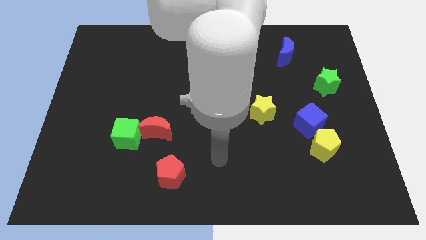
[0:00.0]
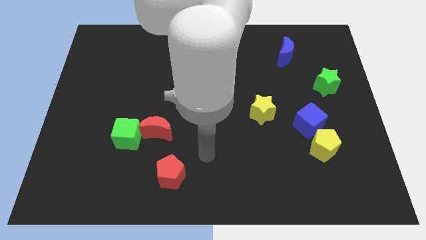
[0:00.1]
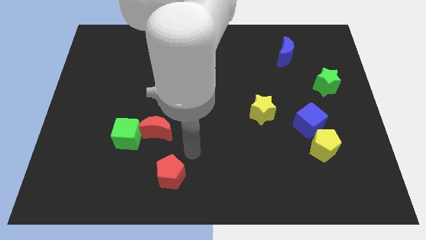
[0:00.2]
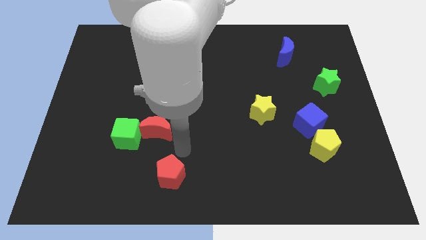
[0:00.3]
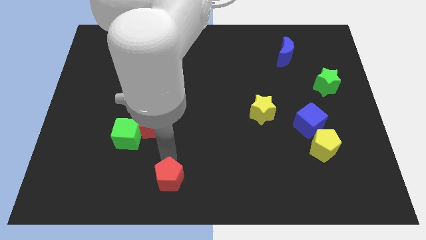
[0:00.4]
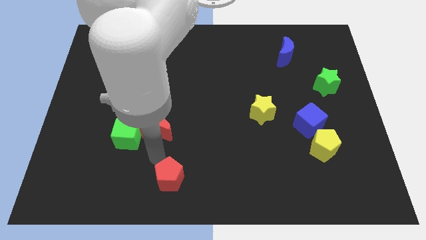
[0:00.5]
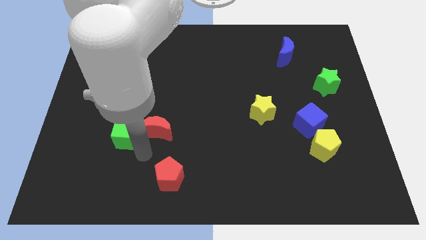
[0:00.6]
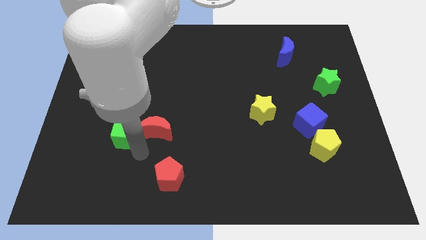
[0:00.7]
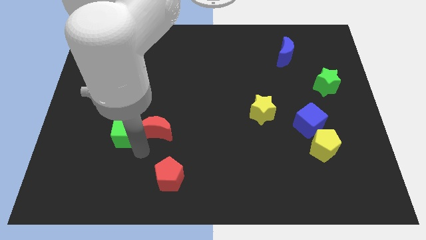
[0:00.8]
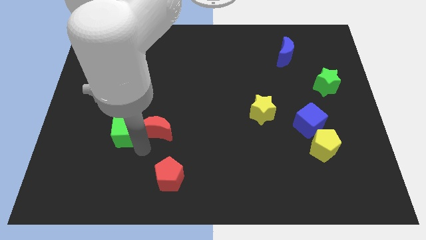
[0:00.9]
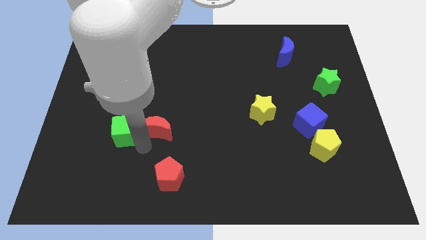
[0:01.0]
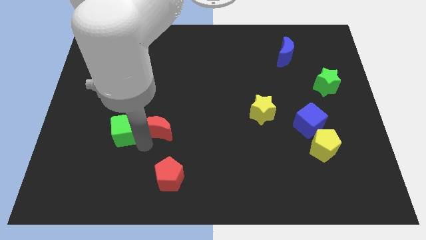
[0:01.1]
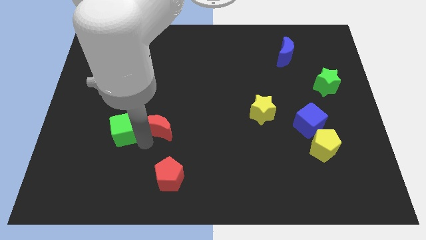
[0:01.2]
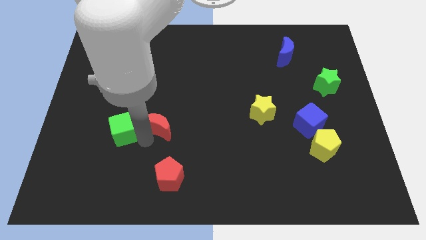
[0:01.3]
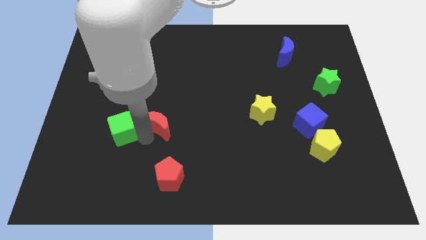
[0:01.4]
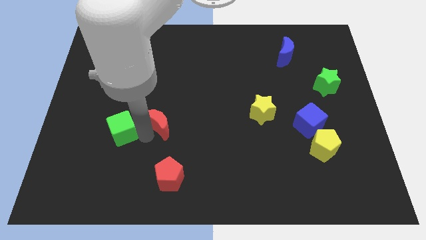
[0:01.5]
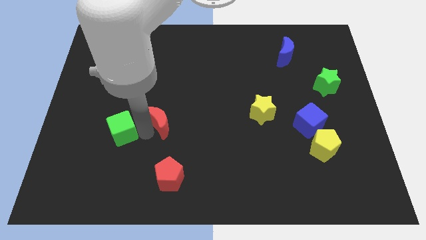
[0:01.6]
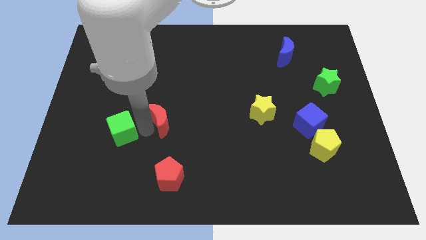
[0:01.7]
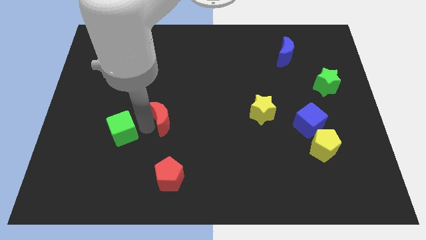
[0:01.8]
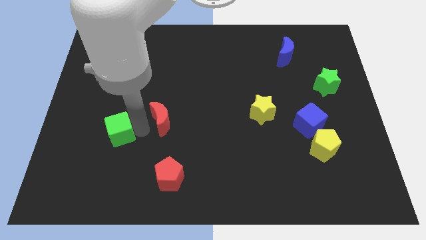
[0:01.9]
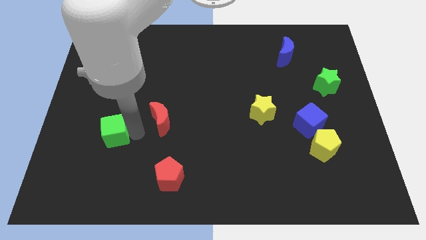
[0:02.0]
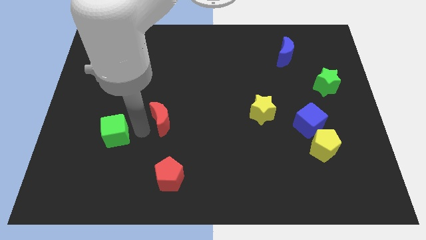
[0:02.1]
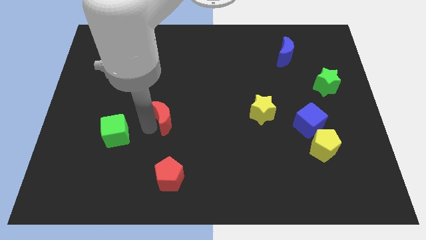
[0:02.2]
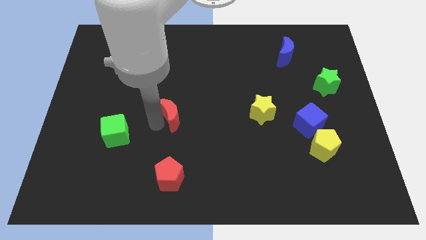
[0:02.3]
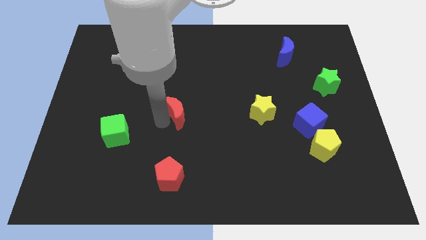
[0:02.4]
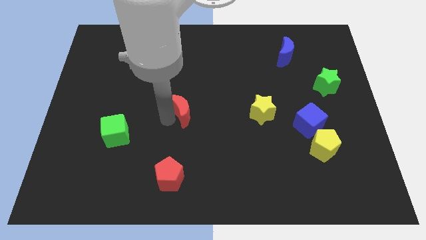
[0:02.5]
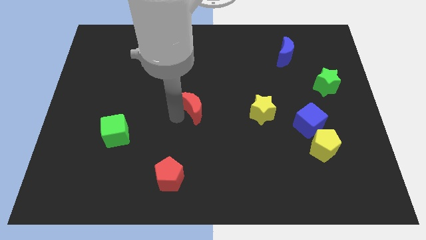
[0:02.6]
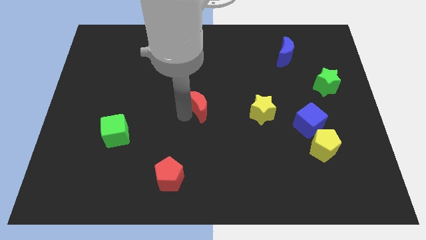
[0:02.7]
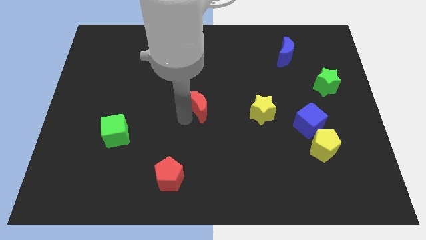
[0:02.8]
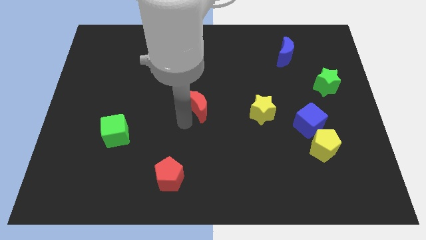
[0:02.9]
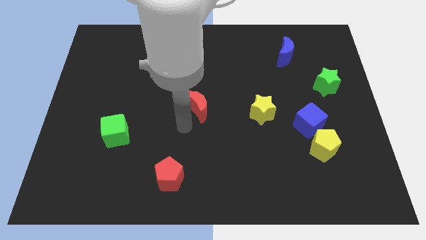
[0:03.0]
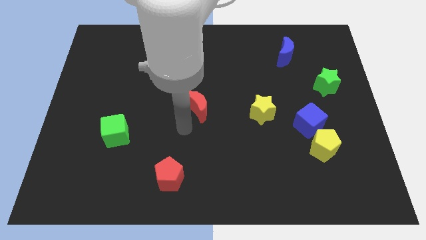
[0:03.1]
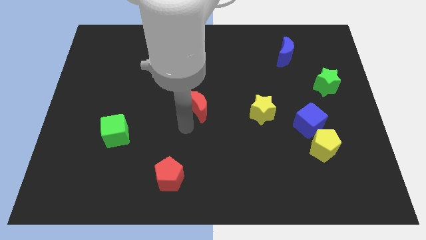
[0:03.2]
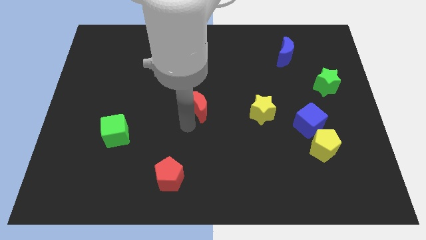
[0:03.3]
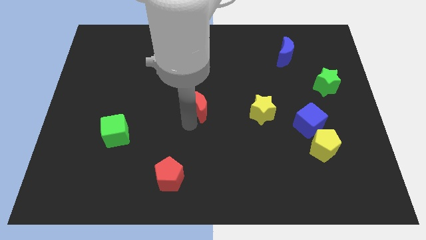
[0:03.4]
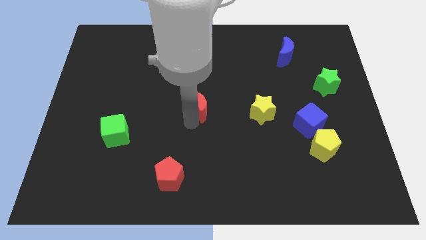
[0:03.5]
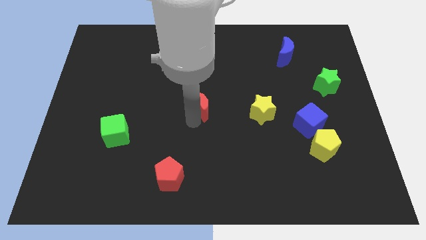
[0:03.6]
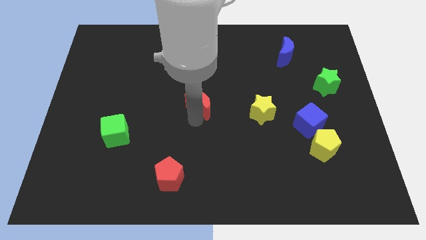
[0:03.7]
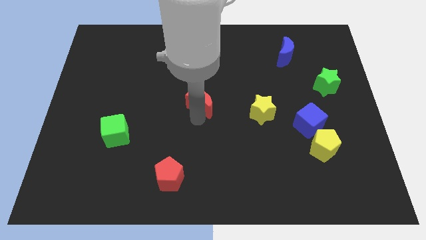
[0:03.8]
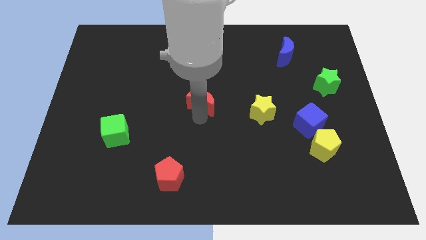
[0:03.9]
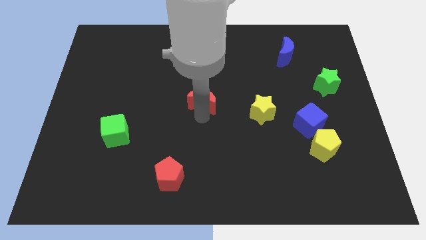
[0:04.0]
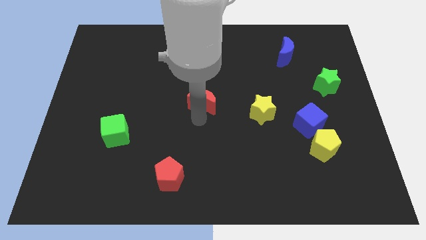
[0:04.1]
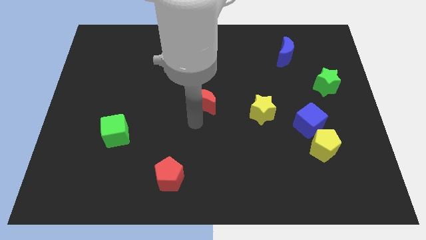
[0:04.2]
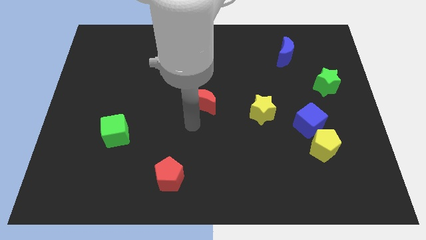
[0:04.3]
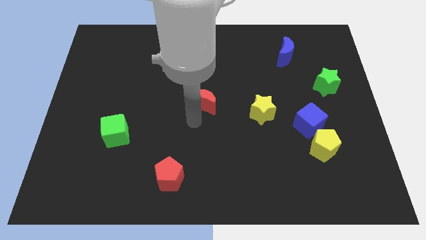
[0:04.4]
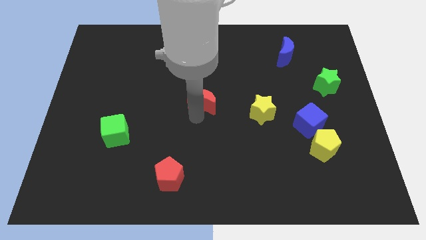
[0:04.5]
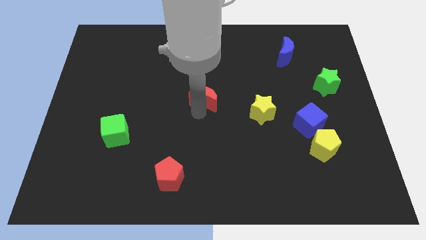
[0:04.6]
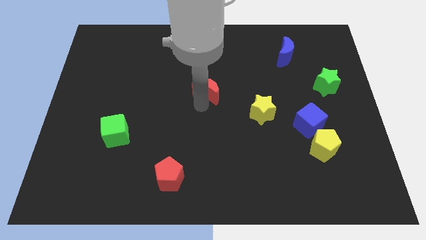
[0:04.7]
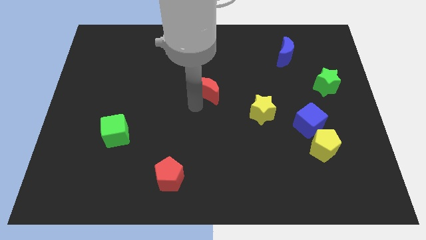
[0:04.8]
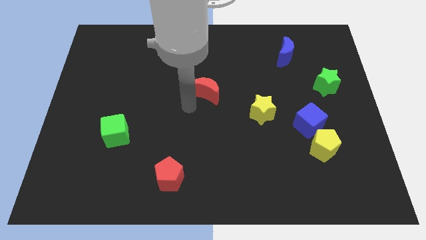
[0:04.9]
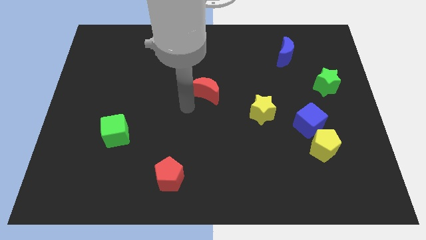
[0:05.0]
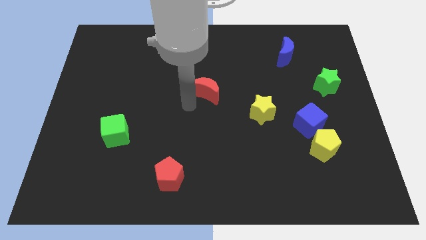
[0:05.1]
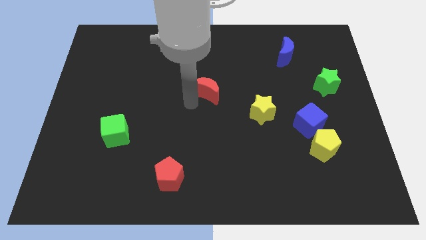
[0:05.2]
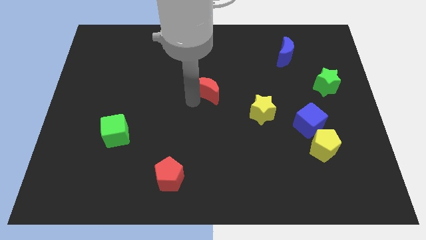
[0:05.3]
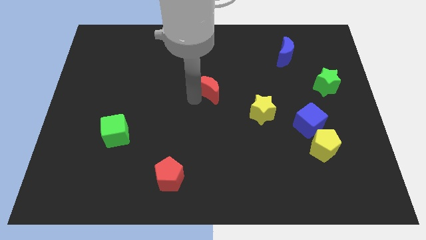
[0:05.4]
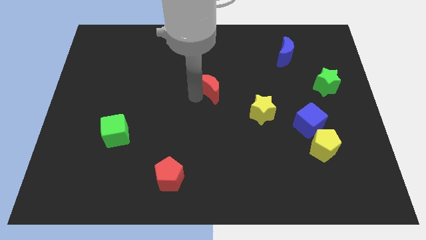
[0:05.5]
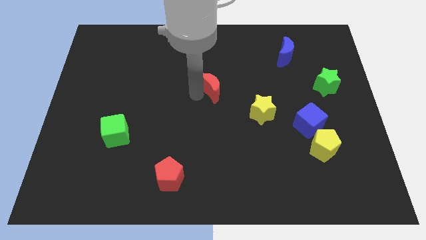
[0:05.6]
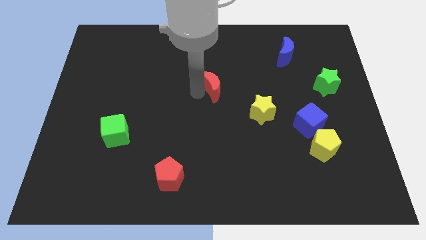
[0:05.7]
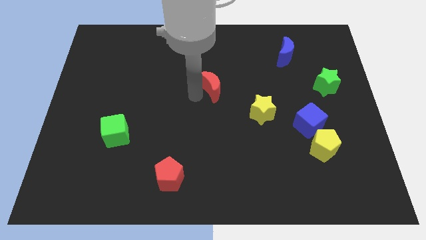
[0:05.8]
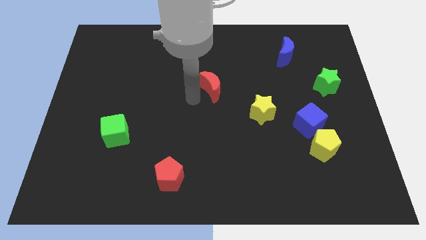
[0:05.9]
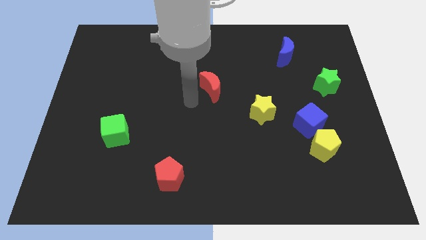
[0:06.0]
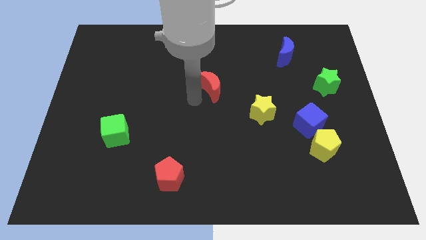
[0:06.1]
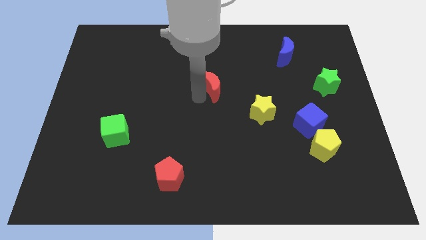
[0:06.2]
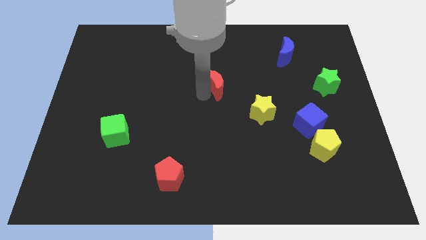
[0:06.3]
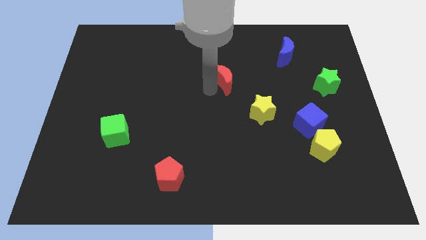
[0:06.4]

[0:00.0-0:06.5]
move the red moon up and right

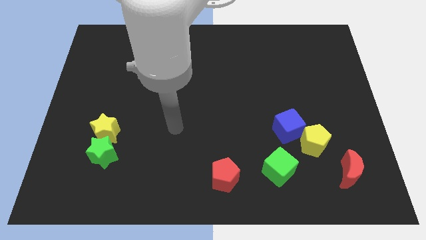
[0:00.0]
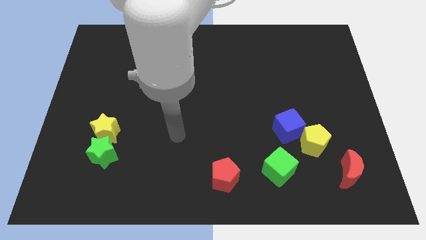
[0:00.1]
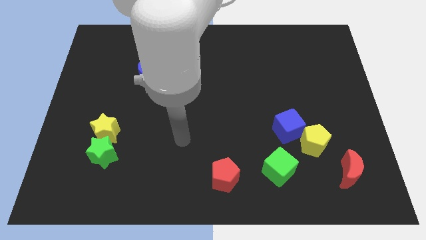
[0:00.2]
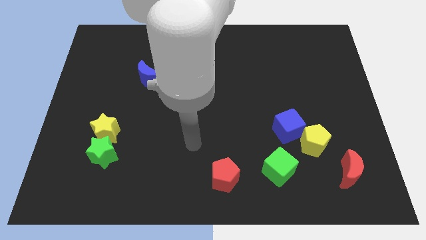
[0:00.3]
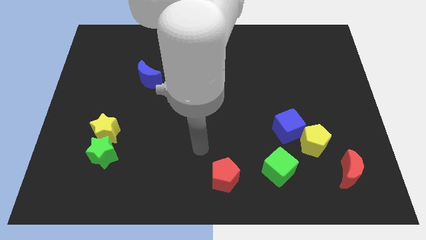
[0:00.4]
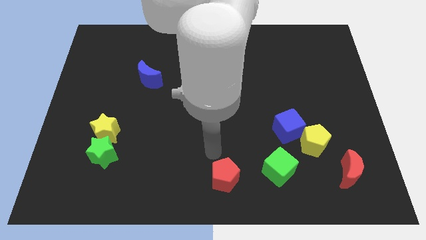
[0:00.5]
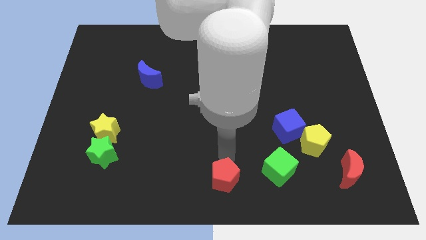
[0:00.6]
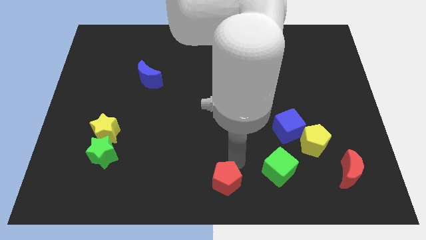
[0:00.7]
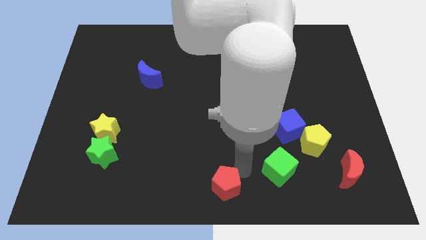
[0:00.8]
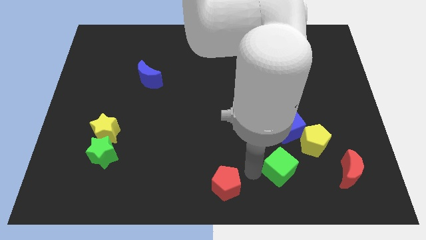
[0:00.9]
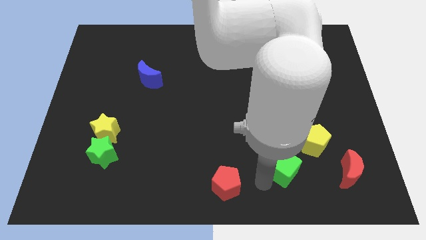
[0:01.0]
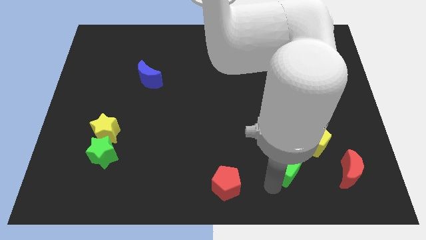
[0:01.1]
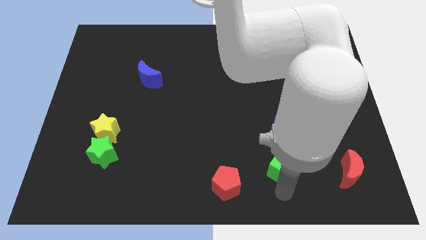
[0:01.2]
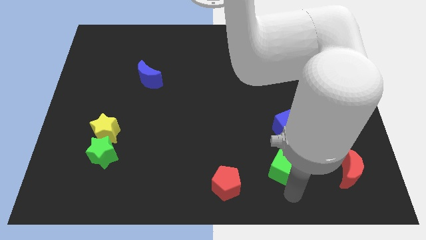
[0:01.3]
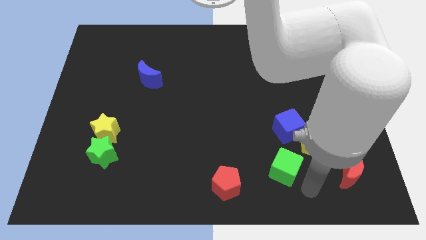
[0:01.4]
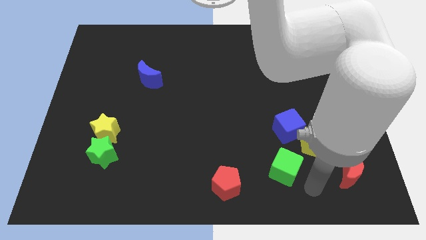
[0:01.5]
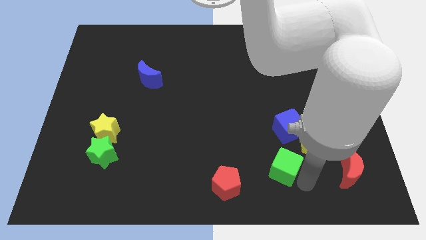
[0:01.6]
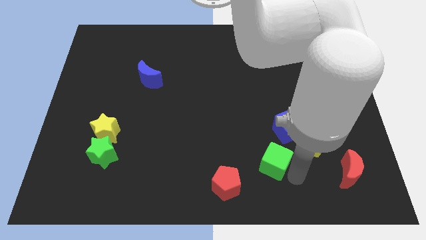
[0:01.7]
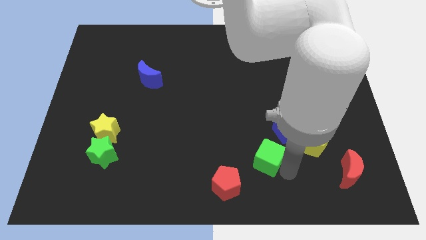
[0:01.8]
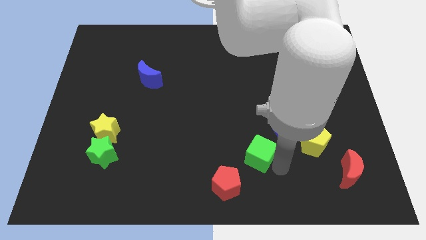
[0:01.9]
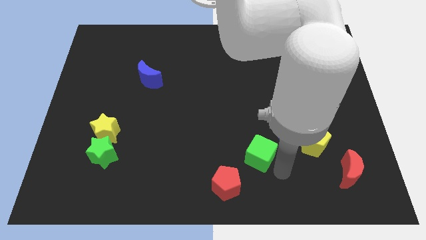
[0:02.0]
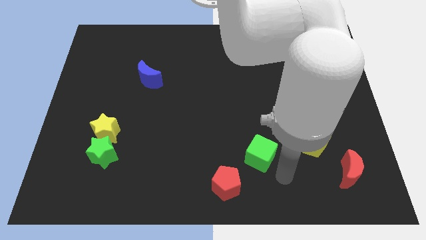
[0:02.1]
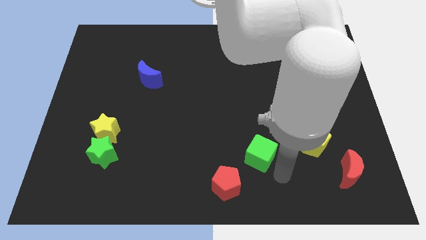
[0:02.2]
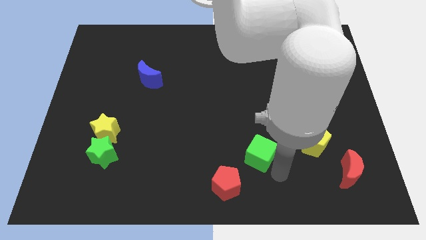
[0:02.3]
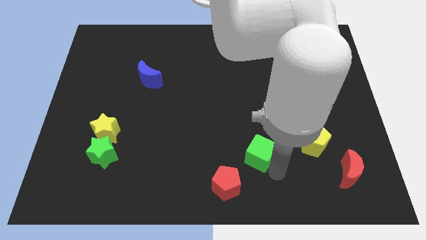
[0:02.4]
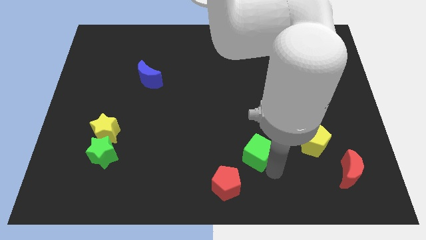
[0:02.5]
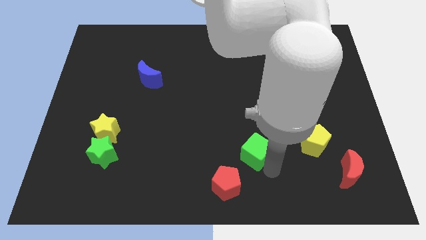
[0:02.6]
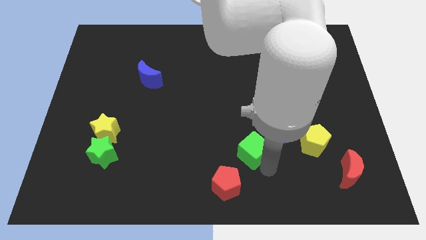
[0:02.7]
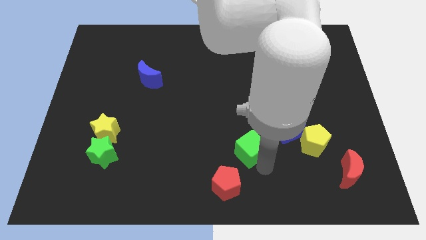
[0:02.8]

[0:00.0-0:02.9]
slightly push the green cube upwards and to the left diagonally
